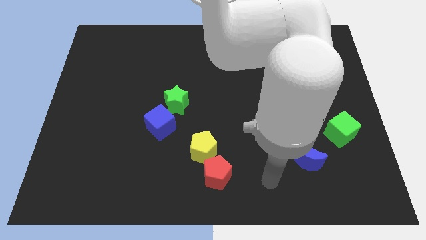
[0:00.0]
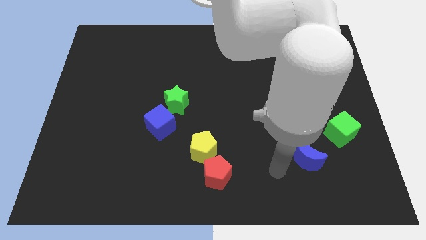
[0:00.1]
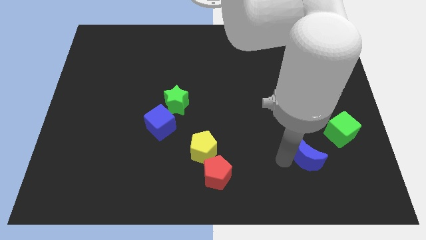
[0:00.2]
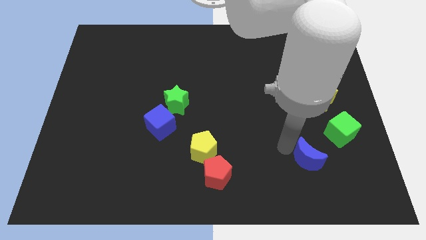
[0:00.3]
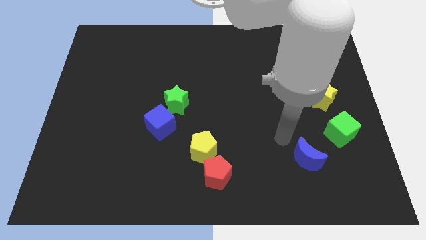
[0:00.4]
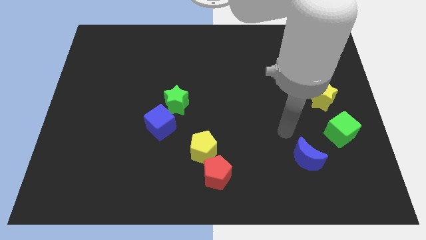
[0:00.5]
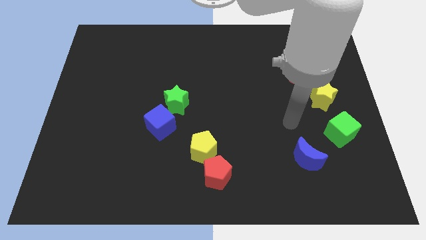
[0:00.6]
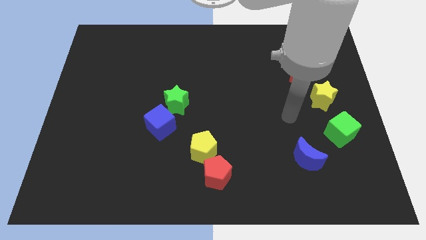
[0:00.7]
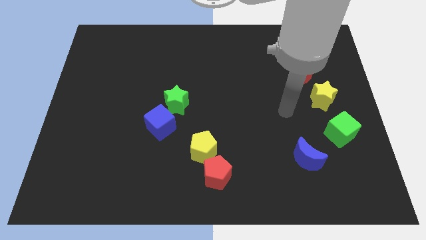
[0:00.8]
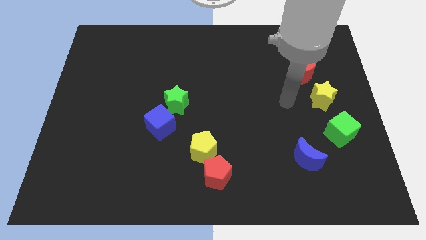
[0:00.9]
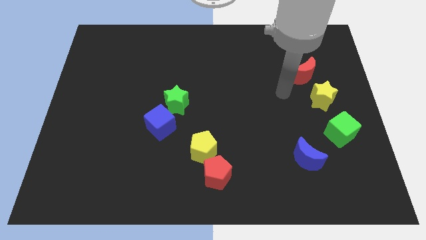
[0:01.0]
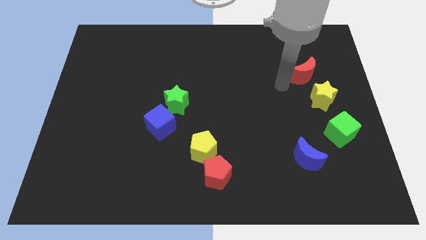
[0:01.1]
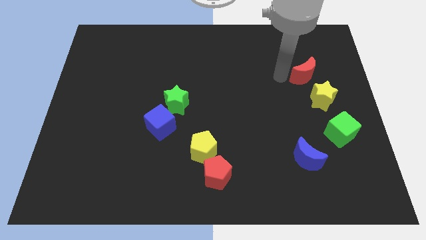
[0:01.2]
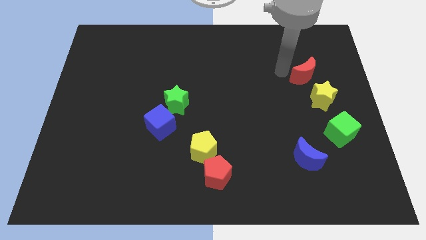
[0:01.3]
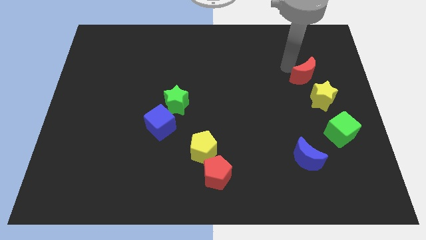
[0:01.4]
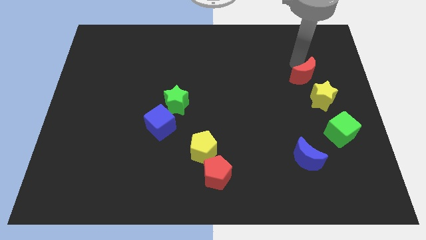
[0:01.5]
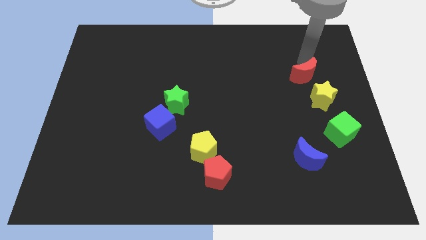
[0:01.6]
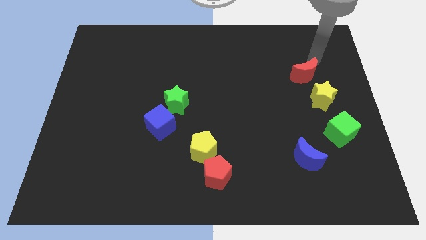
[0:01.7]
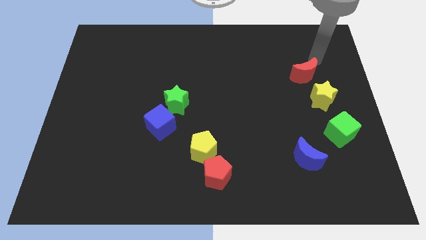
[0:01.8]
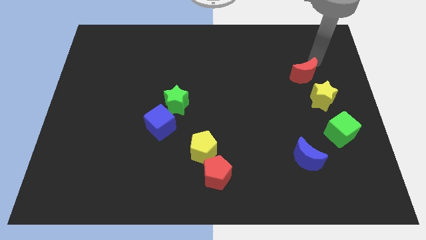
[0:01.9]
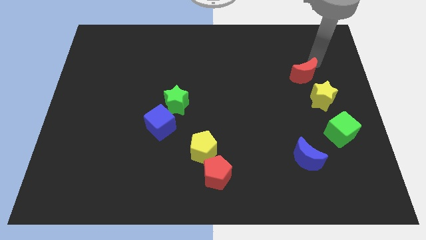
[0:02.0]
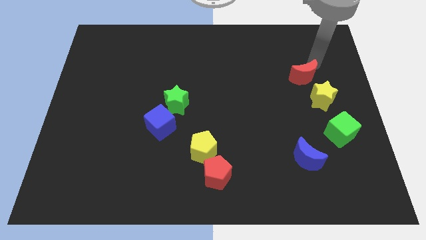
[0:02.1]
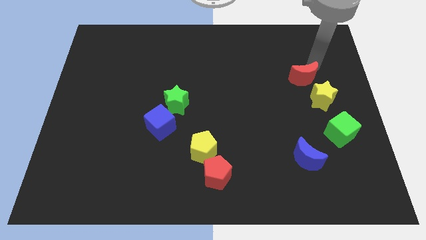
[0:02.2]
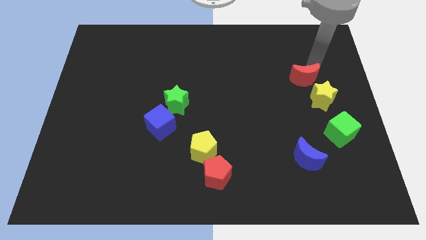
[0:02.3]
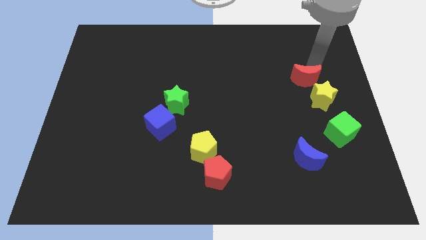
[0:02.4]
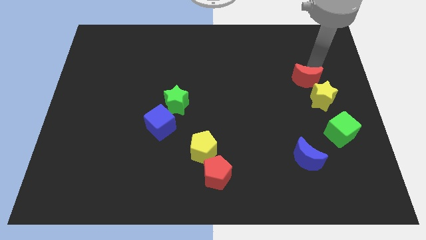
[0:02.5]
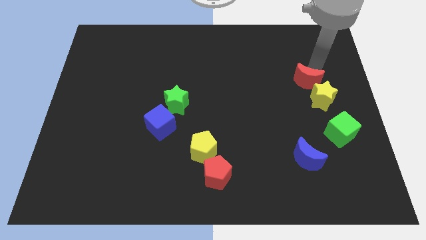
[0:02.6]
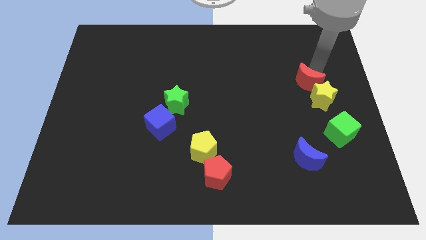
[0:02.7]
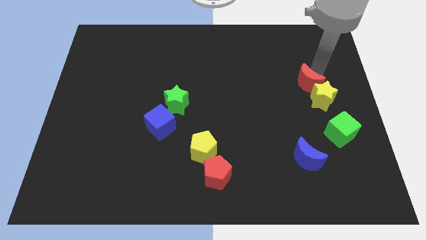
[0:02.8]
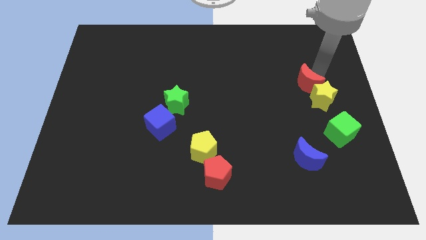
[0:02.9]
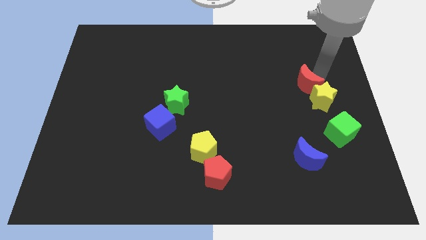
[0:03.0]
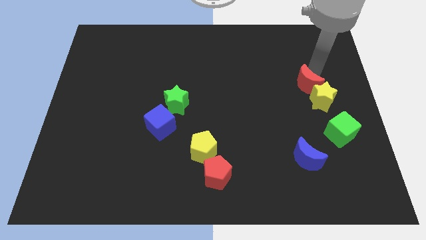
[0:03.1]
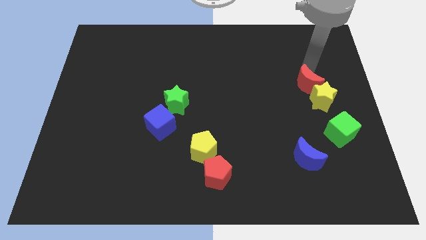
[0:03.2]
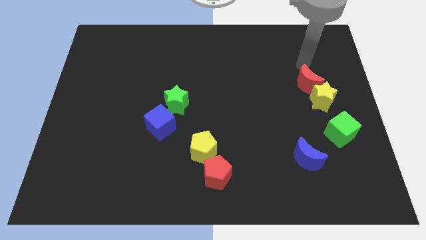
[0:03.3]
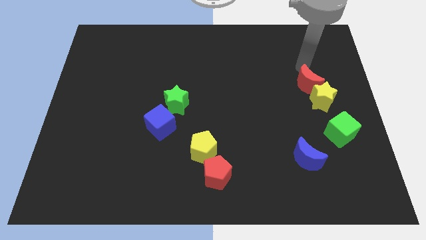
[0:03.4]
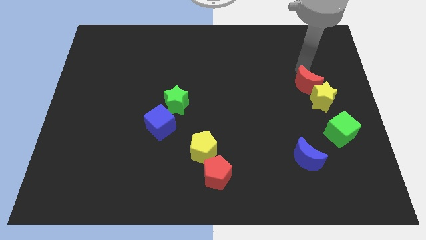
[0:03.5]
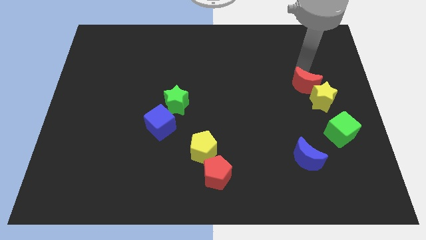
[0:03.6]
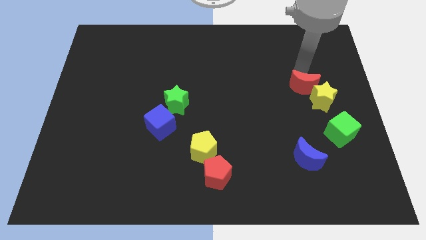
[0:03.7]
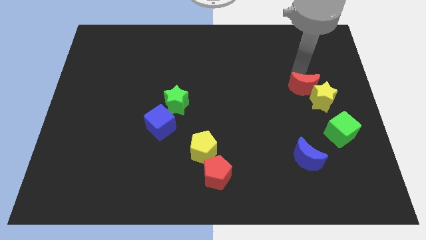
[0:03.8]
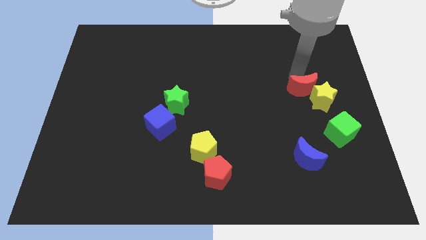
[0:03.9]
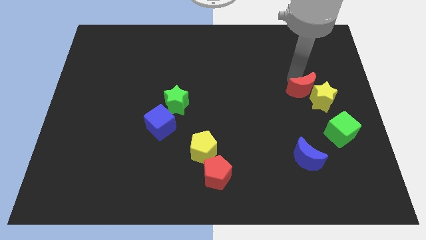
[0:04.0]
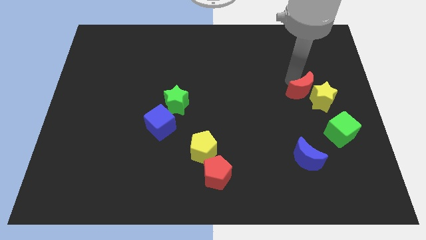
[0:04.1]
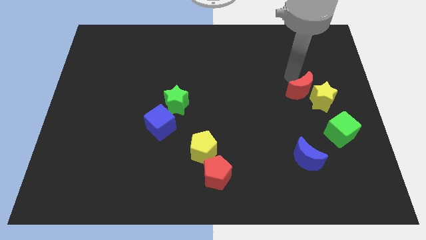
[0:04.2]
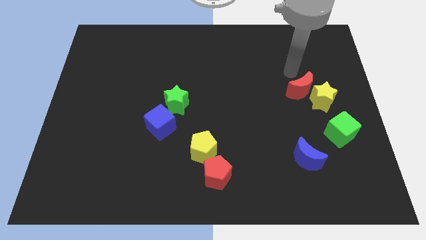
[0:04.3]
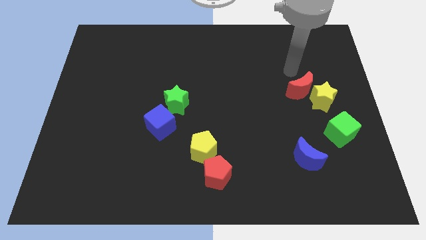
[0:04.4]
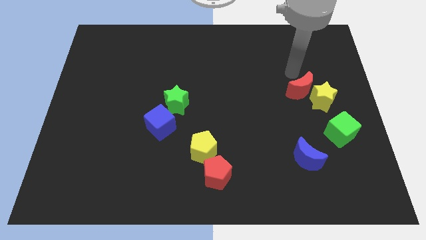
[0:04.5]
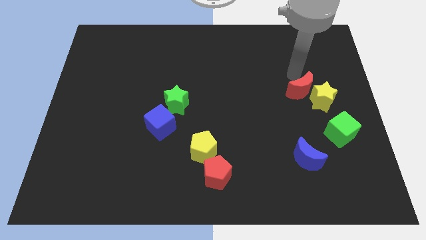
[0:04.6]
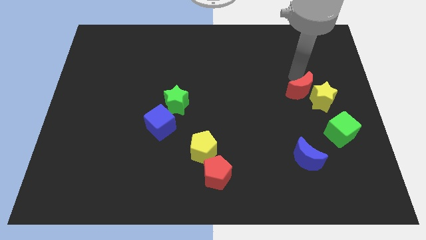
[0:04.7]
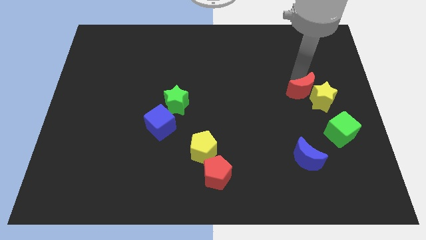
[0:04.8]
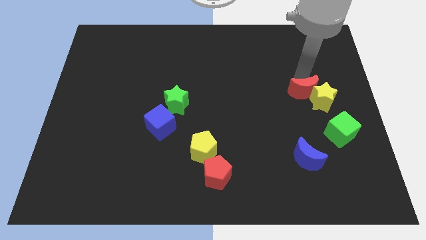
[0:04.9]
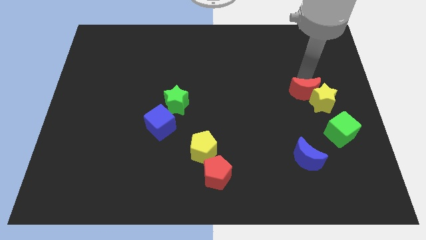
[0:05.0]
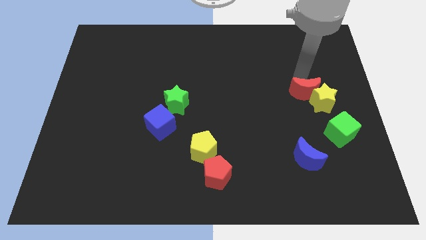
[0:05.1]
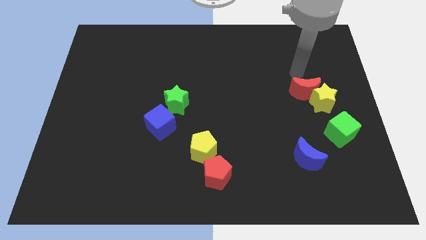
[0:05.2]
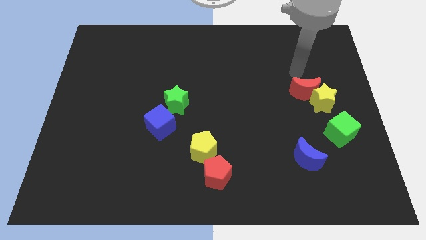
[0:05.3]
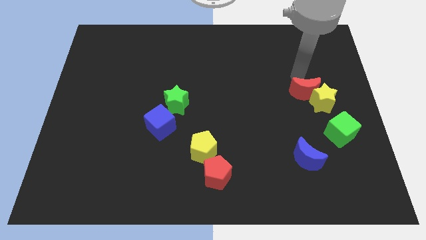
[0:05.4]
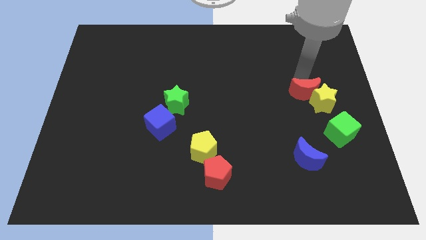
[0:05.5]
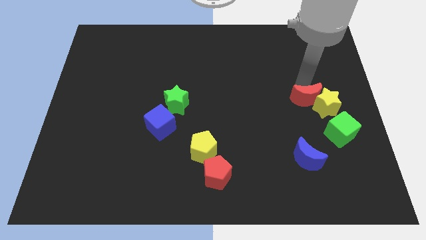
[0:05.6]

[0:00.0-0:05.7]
slide the red moon to the top left of the green cube

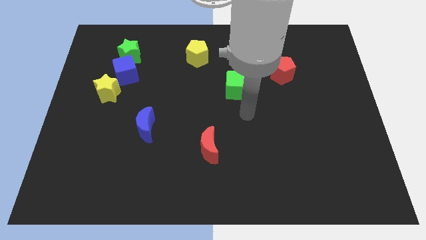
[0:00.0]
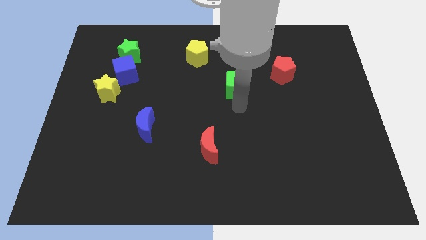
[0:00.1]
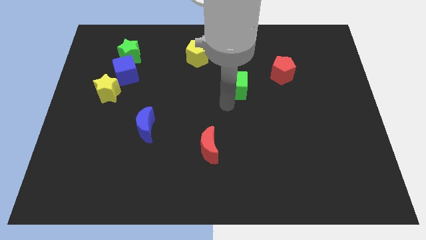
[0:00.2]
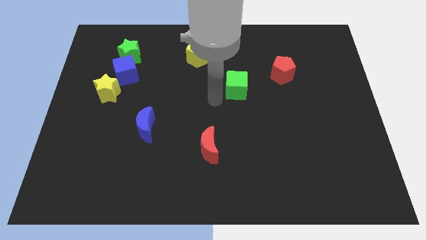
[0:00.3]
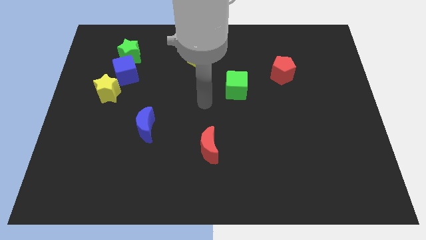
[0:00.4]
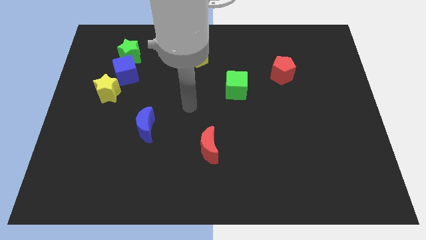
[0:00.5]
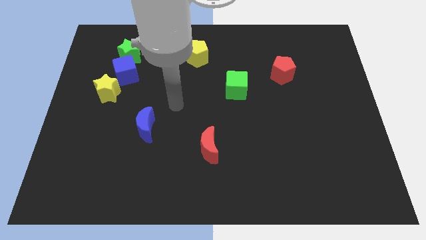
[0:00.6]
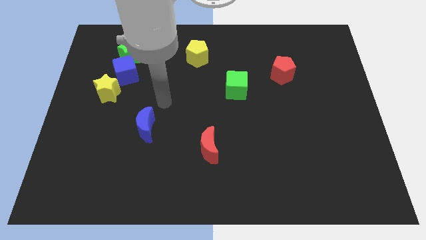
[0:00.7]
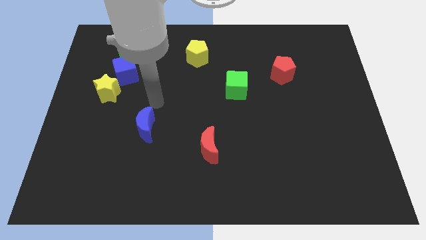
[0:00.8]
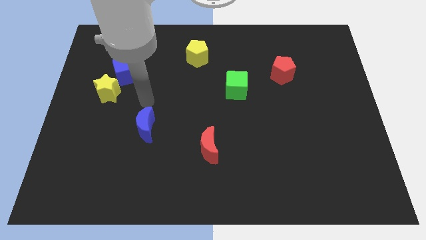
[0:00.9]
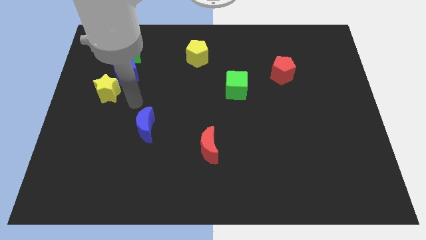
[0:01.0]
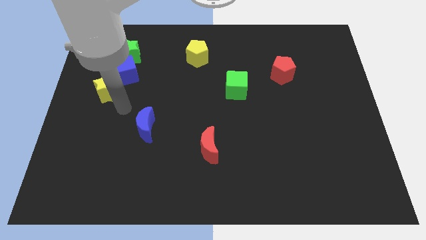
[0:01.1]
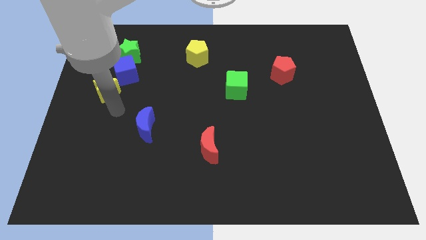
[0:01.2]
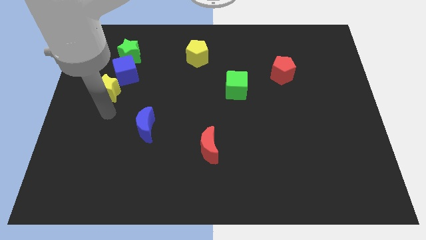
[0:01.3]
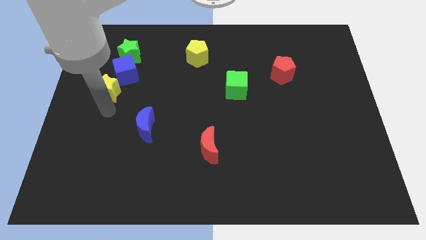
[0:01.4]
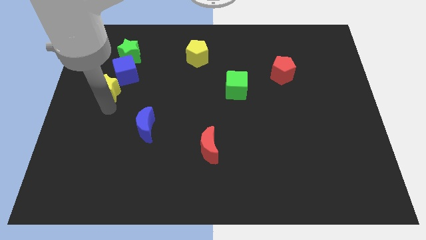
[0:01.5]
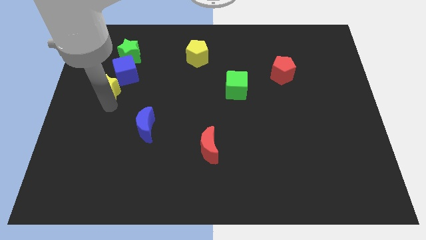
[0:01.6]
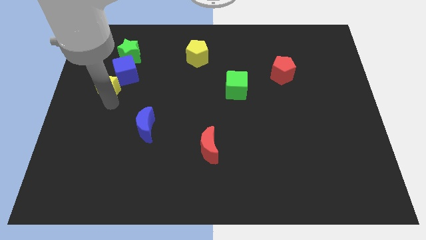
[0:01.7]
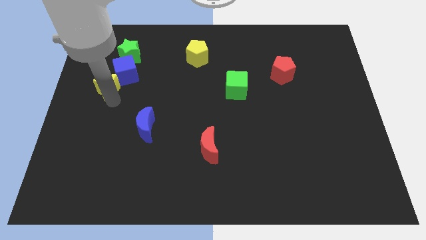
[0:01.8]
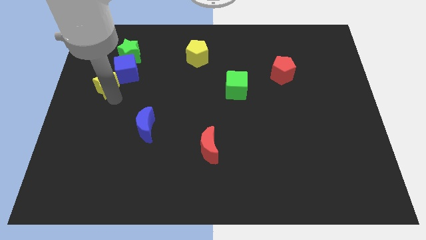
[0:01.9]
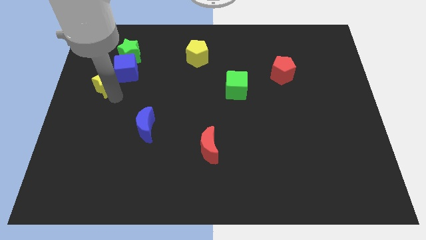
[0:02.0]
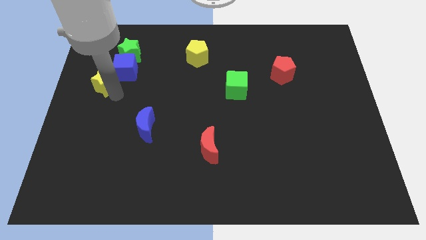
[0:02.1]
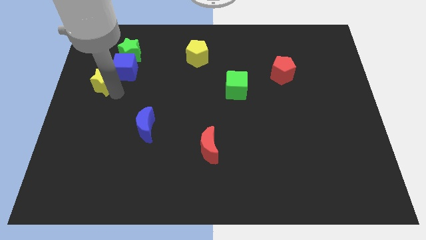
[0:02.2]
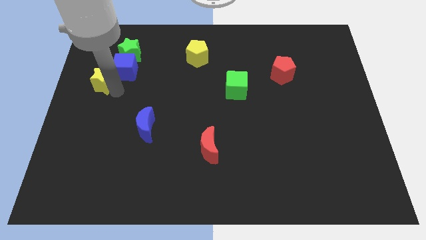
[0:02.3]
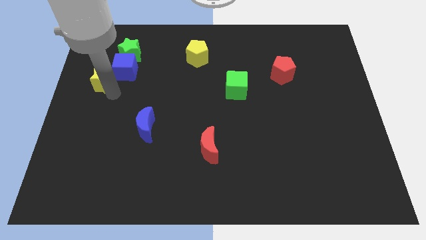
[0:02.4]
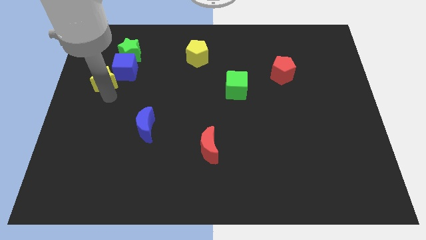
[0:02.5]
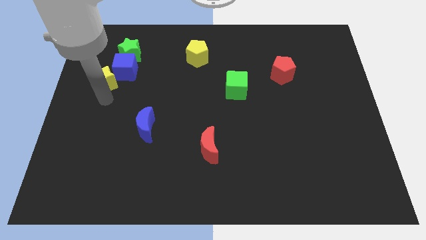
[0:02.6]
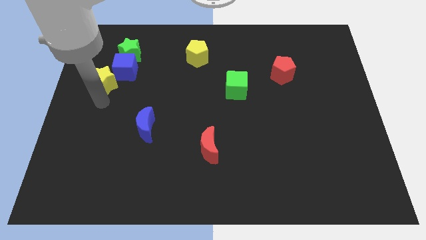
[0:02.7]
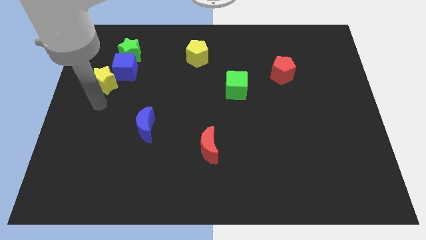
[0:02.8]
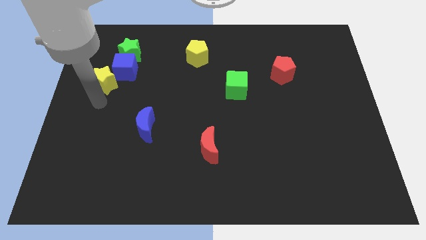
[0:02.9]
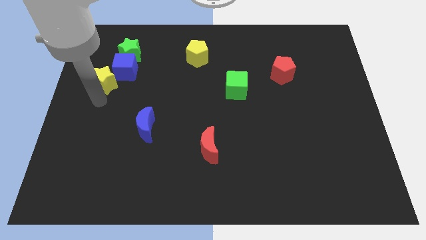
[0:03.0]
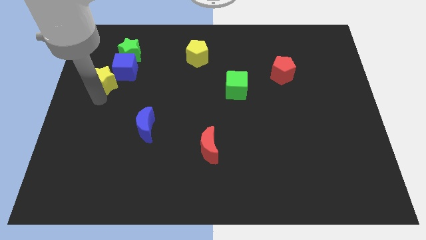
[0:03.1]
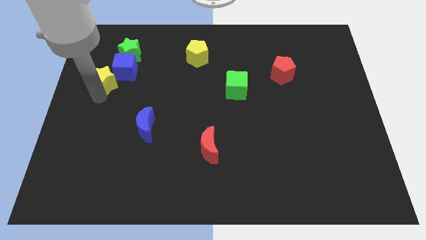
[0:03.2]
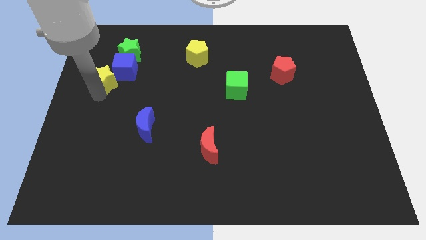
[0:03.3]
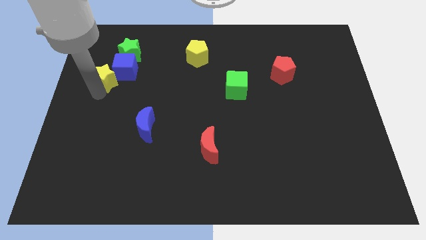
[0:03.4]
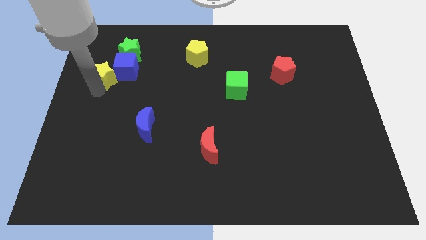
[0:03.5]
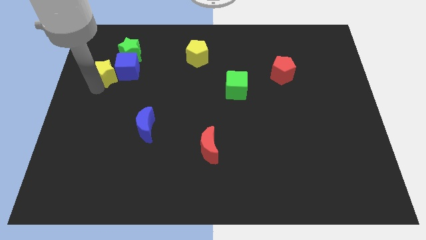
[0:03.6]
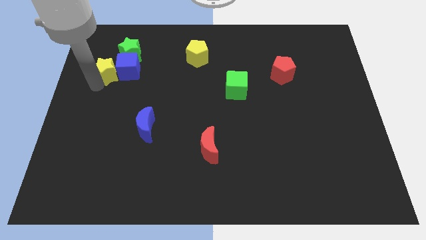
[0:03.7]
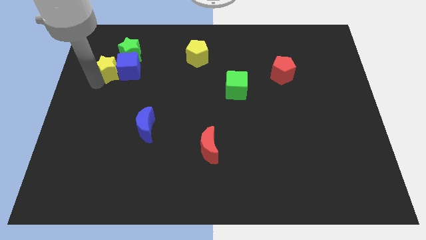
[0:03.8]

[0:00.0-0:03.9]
move the yellow star to the top left side of the blue cube
